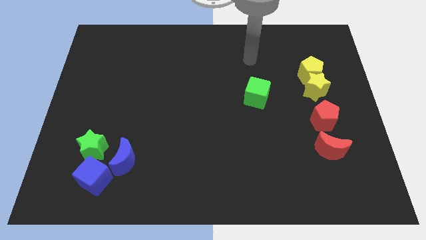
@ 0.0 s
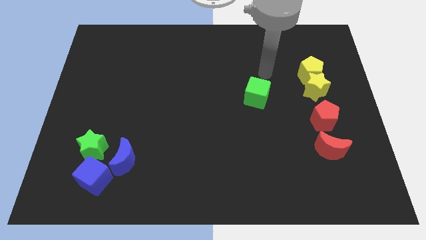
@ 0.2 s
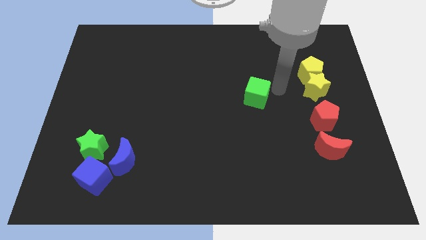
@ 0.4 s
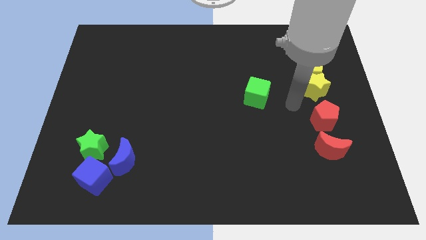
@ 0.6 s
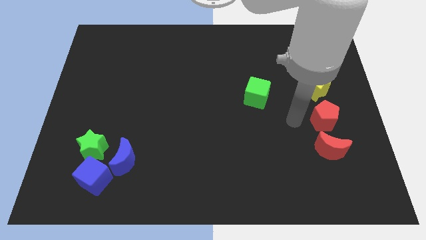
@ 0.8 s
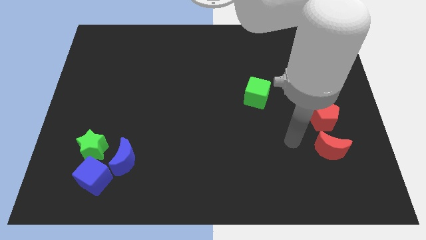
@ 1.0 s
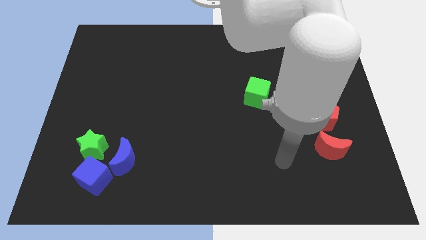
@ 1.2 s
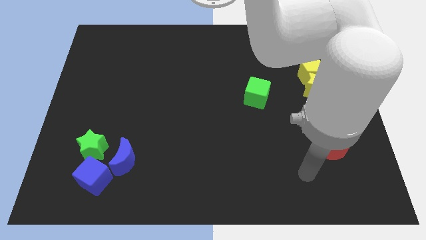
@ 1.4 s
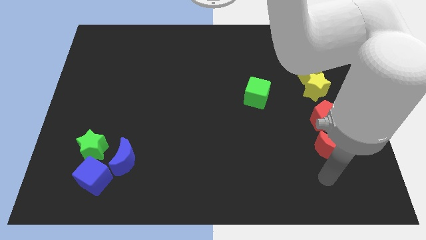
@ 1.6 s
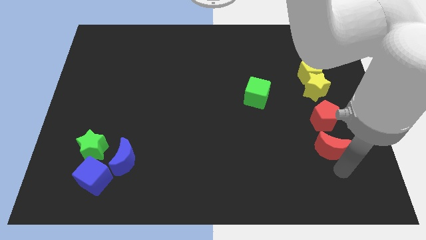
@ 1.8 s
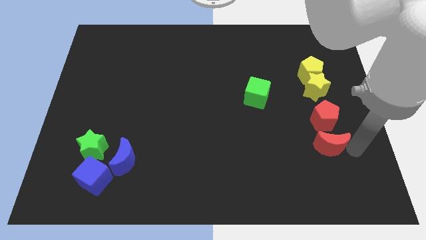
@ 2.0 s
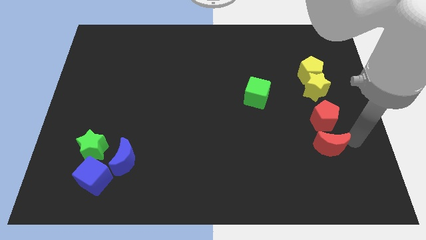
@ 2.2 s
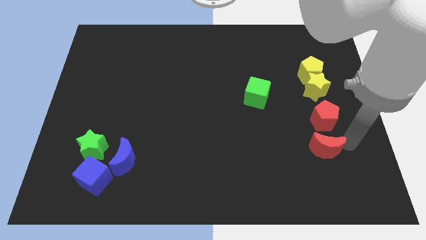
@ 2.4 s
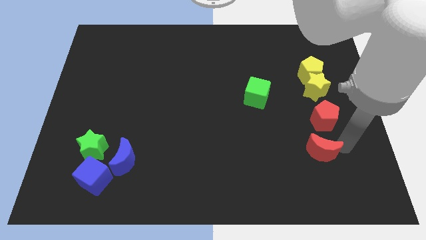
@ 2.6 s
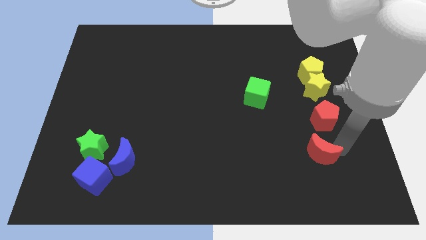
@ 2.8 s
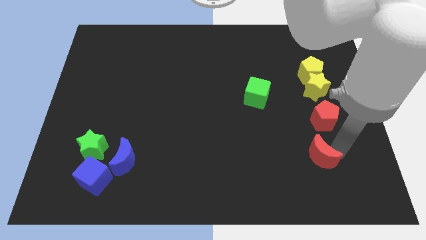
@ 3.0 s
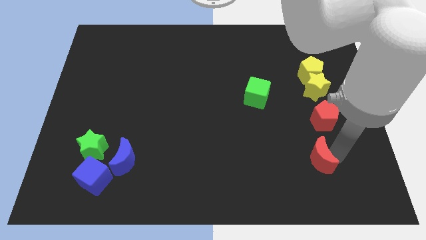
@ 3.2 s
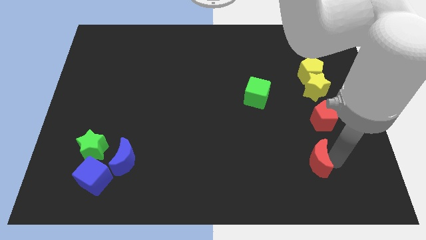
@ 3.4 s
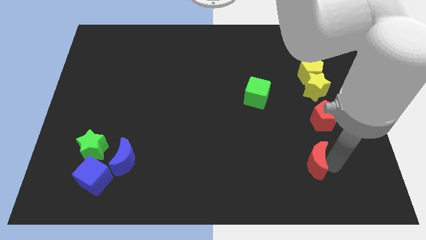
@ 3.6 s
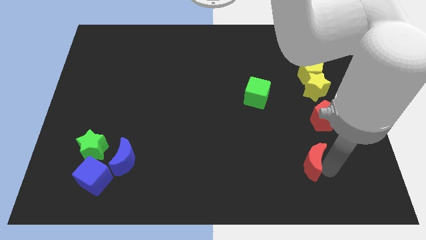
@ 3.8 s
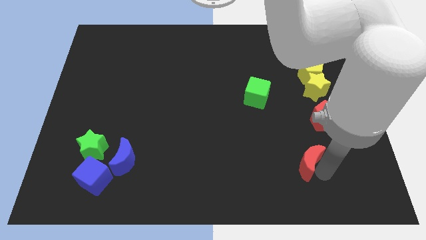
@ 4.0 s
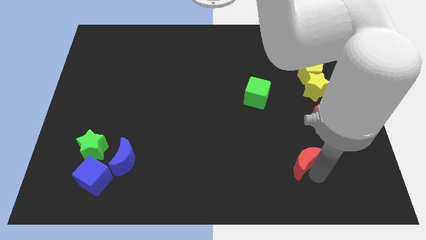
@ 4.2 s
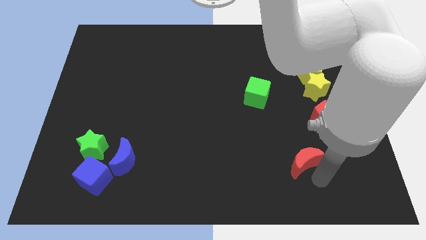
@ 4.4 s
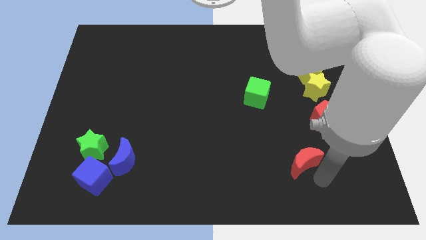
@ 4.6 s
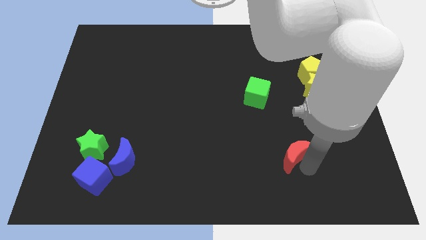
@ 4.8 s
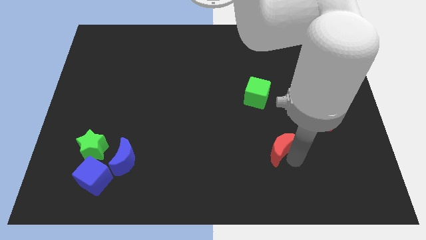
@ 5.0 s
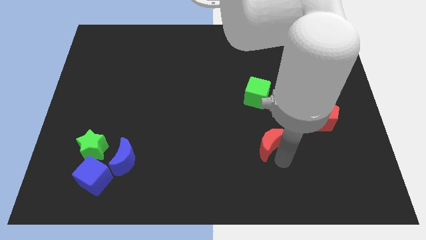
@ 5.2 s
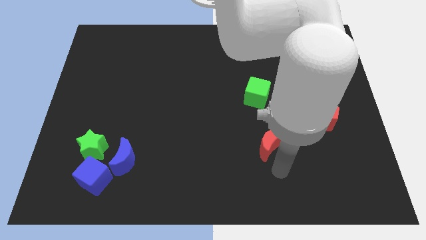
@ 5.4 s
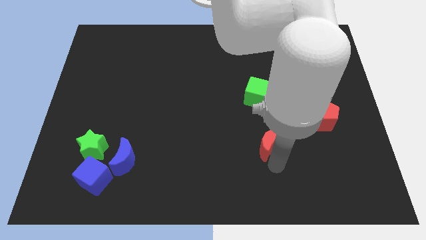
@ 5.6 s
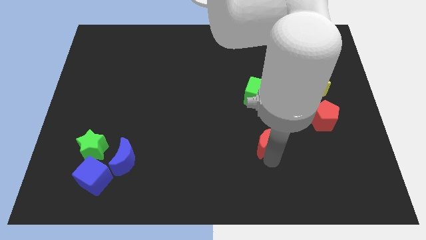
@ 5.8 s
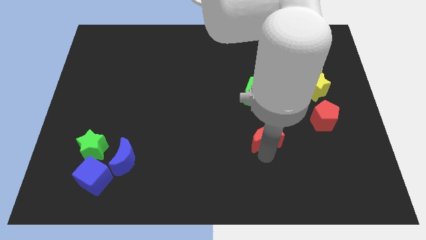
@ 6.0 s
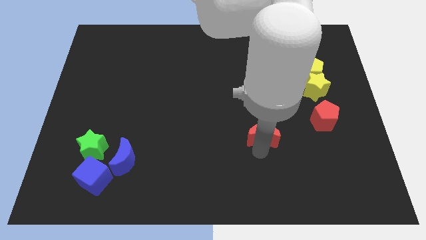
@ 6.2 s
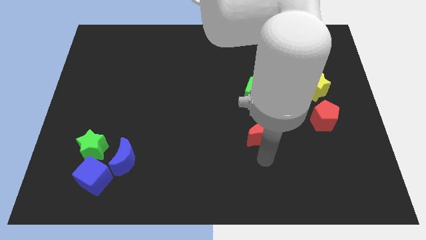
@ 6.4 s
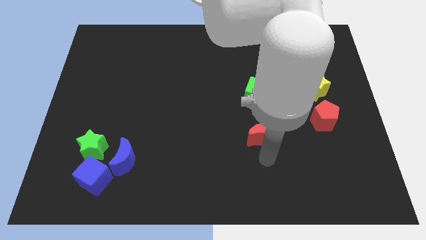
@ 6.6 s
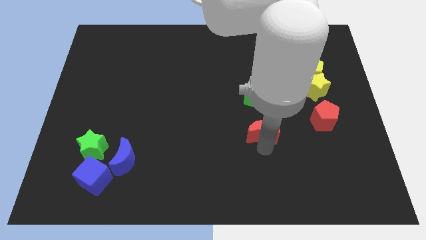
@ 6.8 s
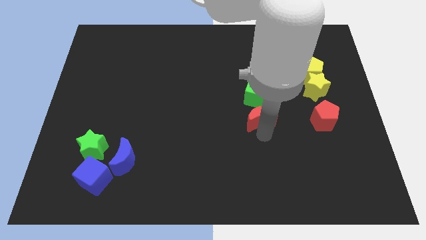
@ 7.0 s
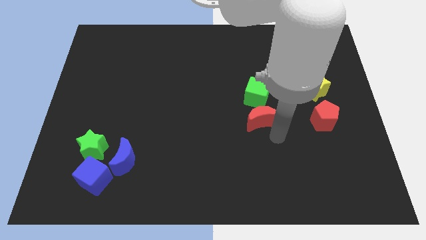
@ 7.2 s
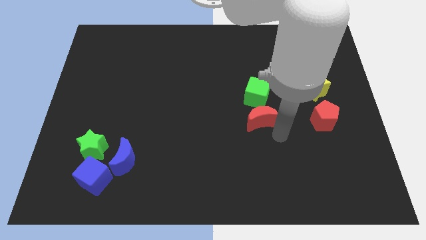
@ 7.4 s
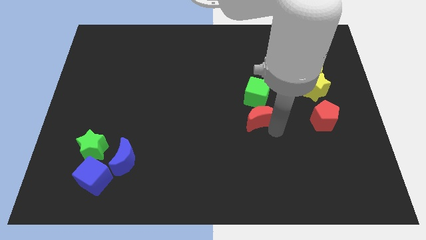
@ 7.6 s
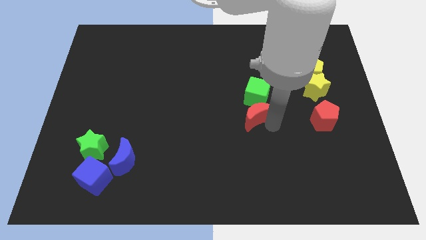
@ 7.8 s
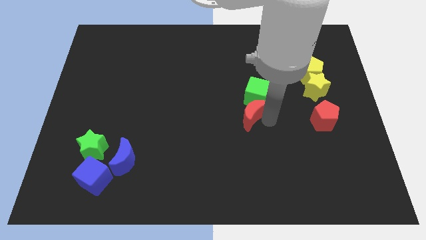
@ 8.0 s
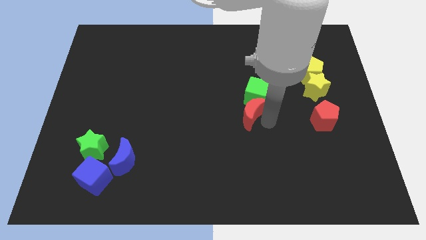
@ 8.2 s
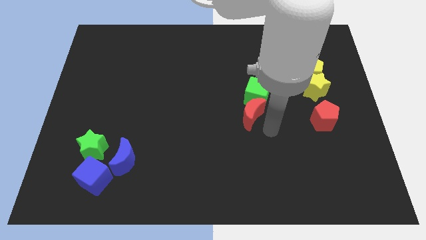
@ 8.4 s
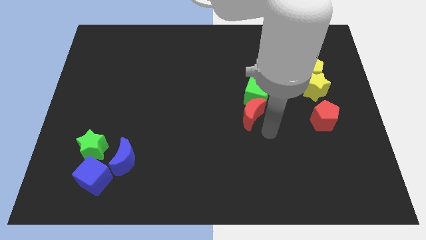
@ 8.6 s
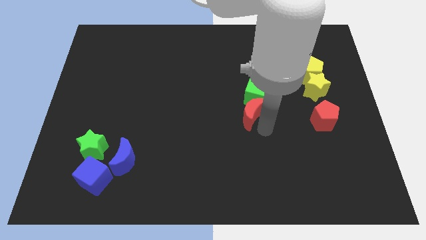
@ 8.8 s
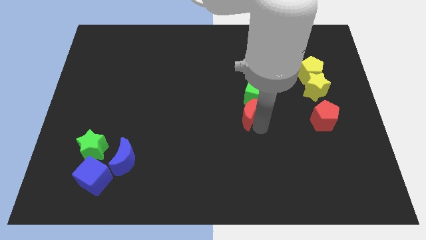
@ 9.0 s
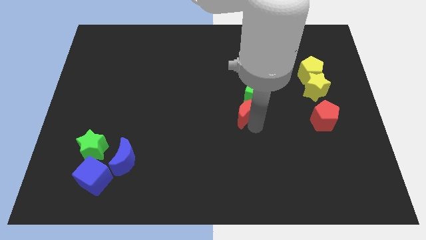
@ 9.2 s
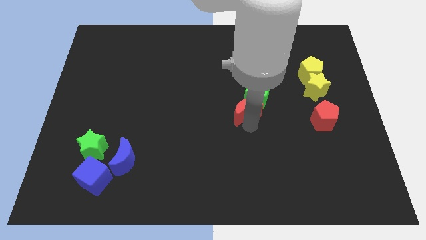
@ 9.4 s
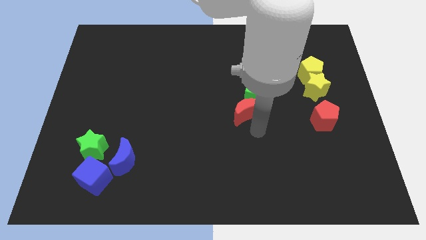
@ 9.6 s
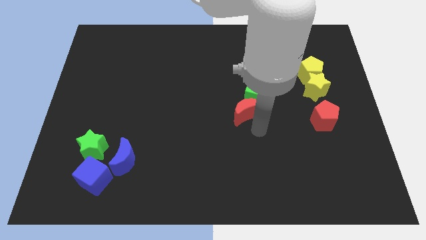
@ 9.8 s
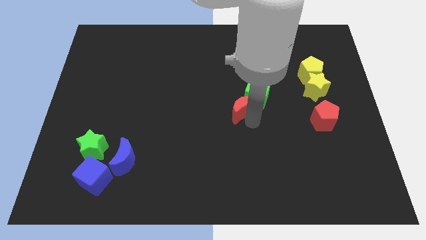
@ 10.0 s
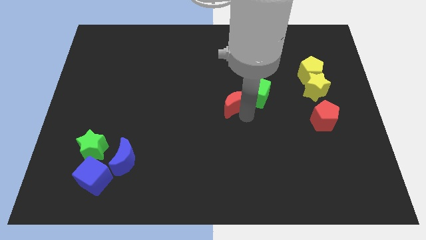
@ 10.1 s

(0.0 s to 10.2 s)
move the red moon up and left

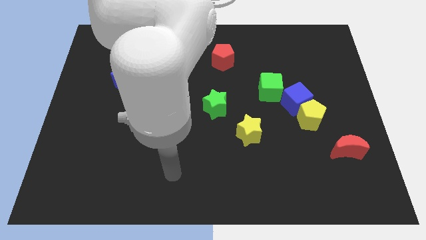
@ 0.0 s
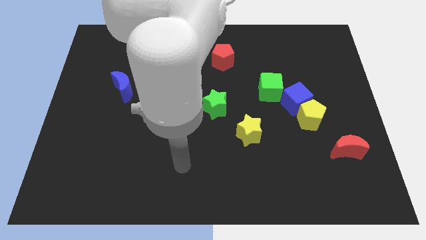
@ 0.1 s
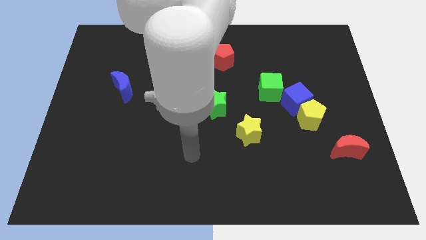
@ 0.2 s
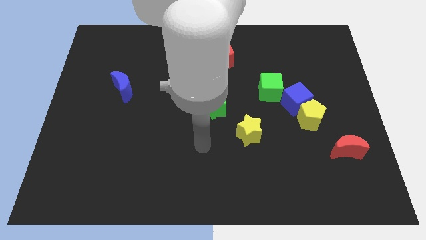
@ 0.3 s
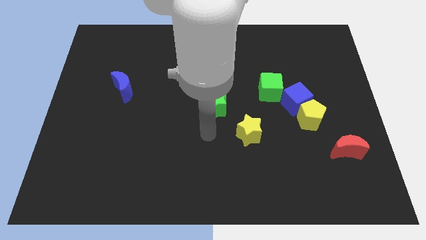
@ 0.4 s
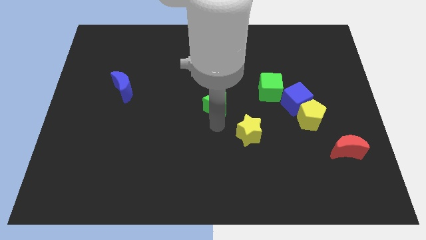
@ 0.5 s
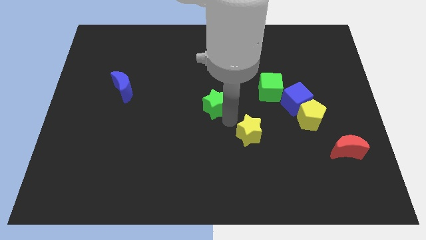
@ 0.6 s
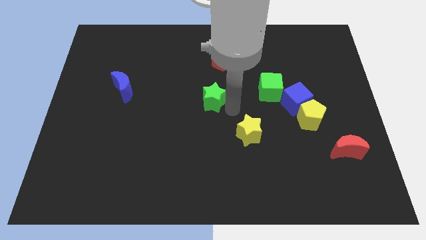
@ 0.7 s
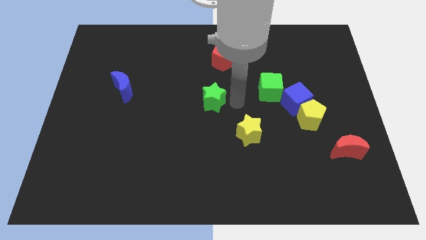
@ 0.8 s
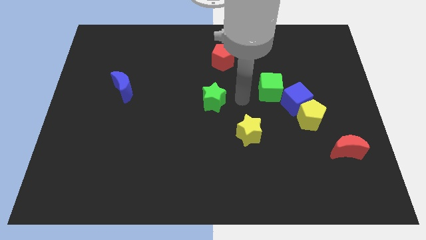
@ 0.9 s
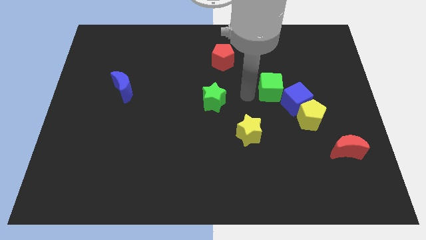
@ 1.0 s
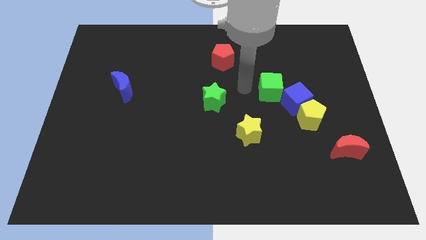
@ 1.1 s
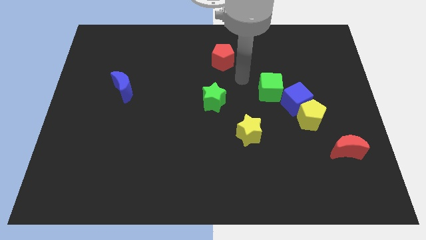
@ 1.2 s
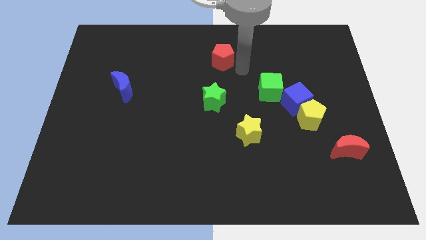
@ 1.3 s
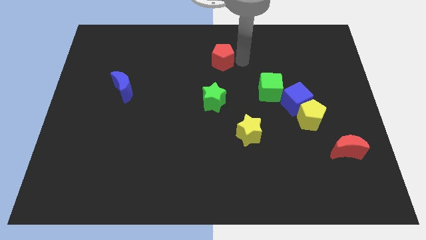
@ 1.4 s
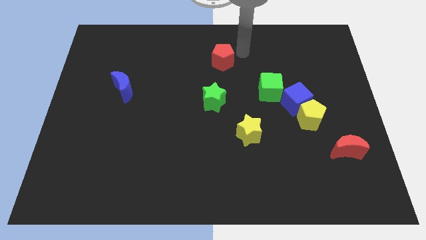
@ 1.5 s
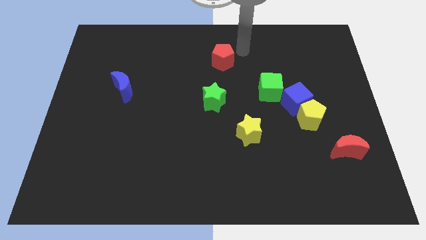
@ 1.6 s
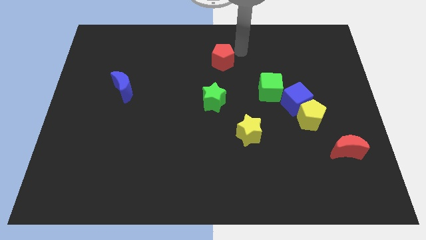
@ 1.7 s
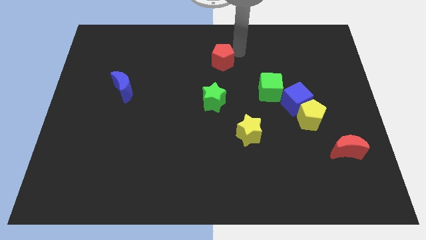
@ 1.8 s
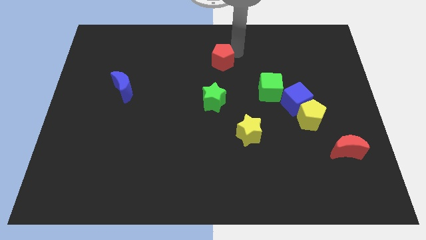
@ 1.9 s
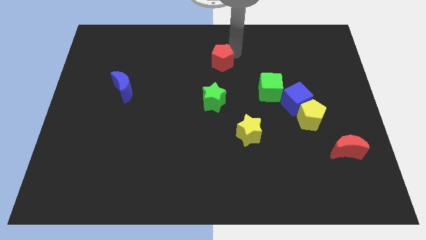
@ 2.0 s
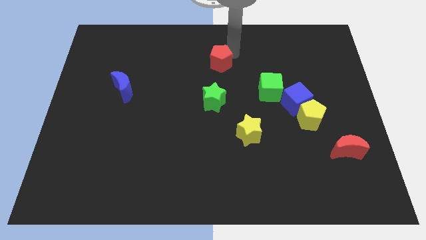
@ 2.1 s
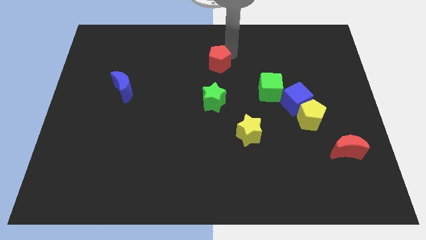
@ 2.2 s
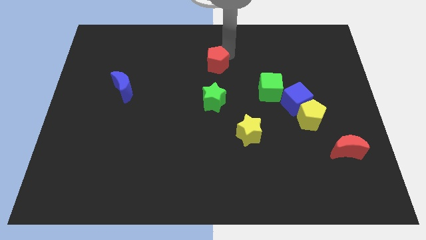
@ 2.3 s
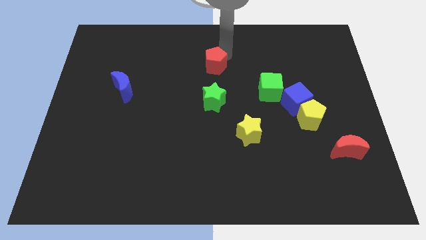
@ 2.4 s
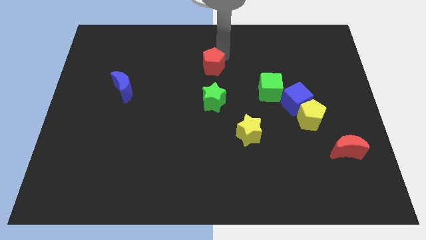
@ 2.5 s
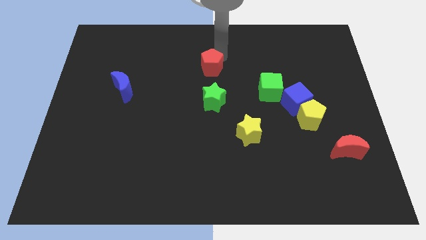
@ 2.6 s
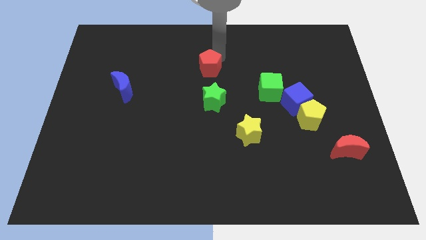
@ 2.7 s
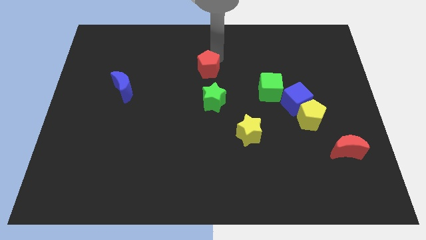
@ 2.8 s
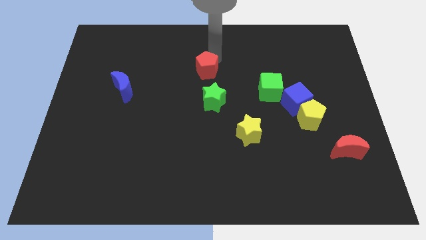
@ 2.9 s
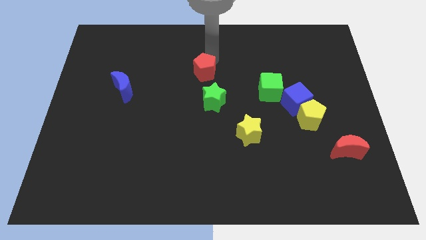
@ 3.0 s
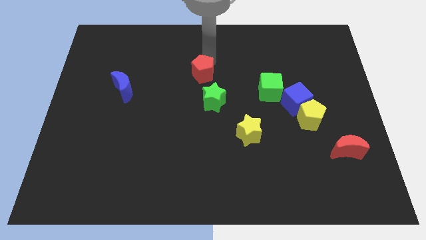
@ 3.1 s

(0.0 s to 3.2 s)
move the red pentagon a little bit down and left diagonally
